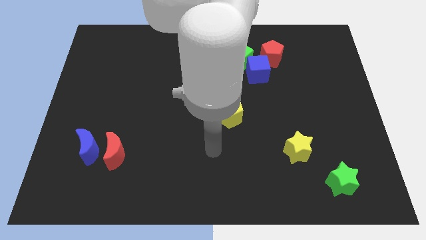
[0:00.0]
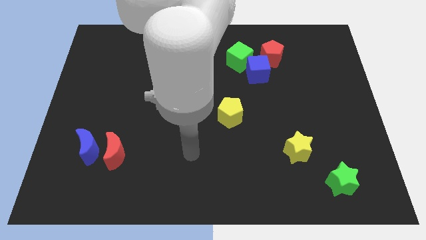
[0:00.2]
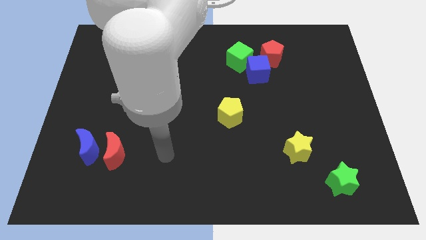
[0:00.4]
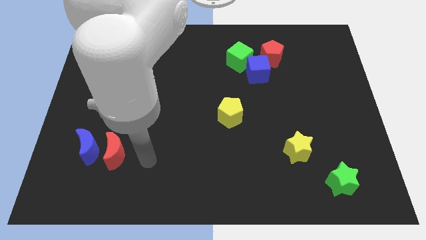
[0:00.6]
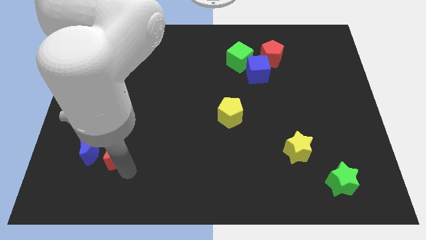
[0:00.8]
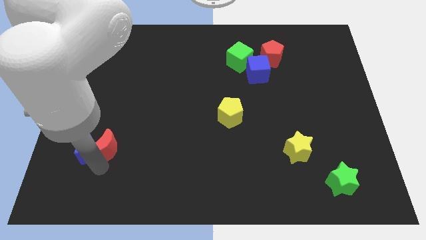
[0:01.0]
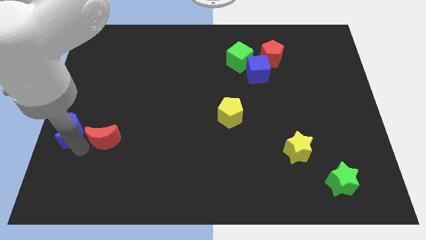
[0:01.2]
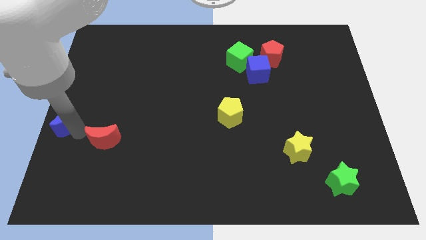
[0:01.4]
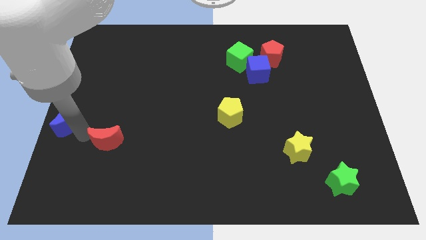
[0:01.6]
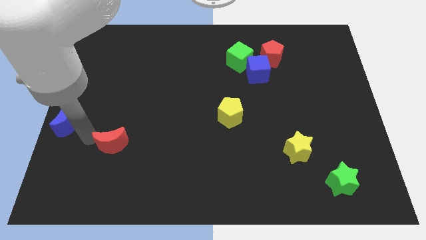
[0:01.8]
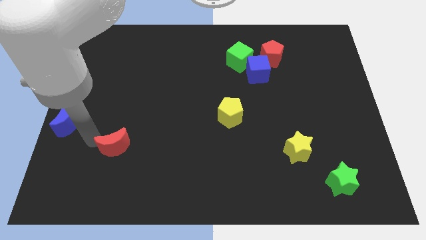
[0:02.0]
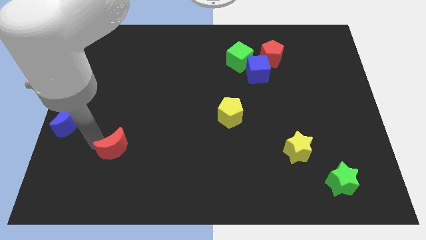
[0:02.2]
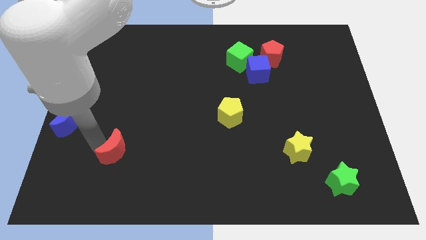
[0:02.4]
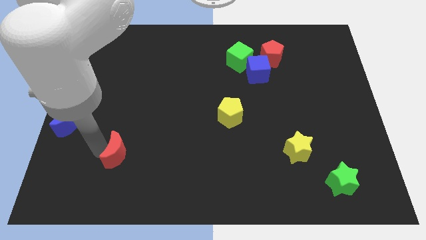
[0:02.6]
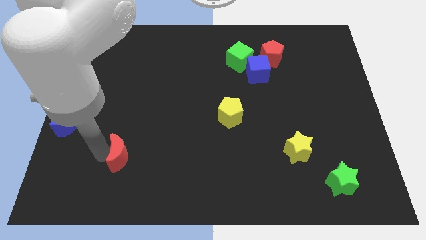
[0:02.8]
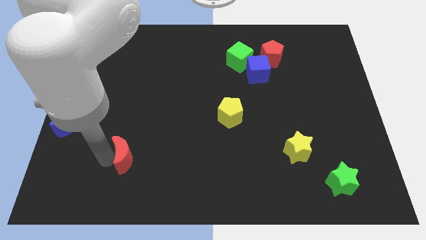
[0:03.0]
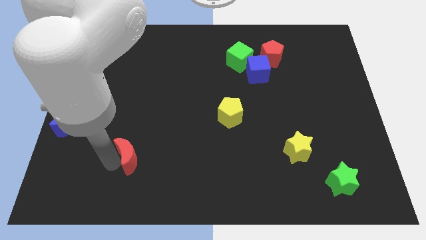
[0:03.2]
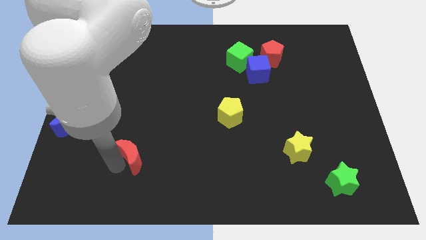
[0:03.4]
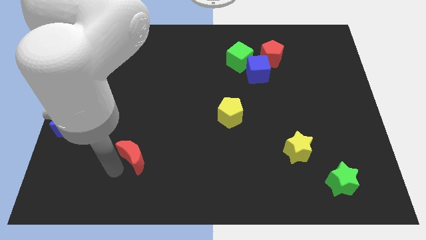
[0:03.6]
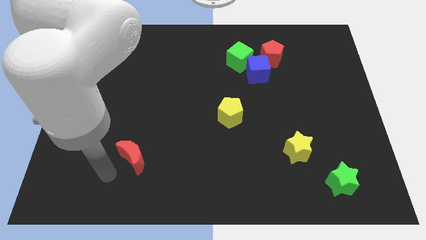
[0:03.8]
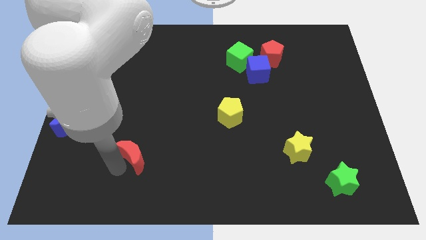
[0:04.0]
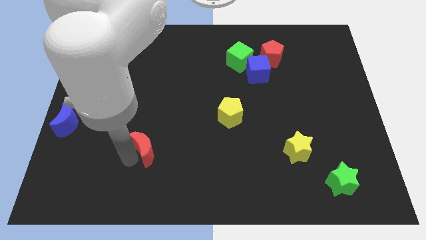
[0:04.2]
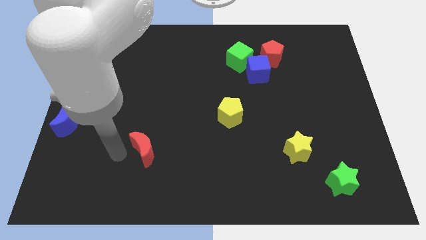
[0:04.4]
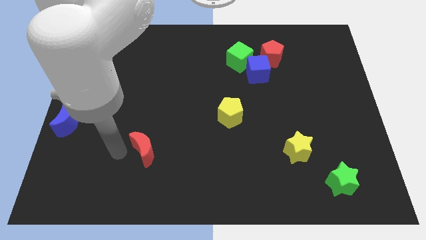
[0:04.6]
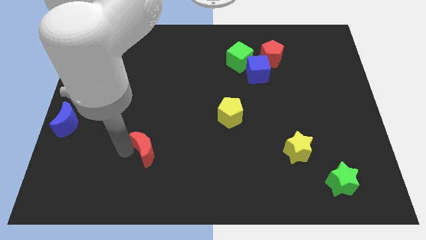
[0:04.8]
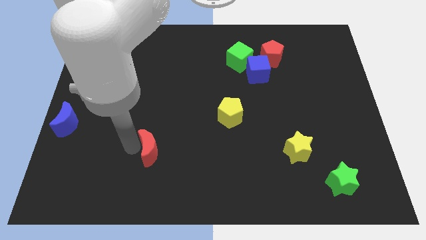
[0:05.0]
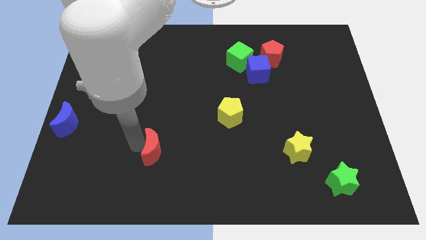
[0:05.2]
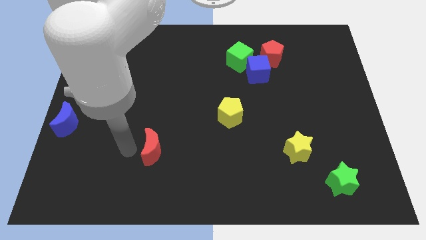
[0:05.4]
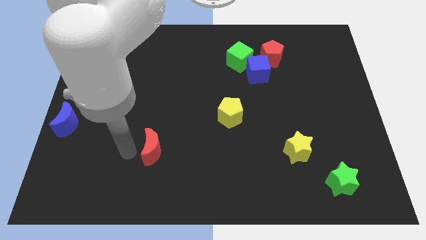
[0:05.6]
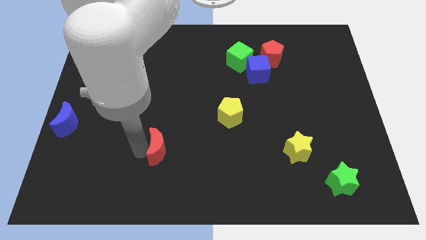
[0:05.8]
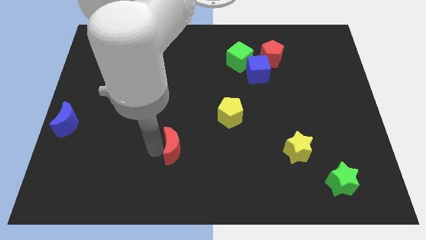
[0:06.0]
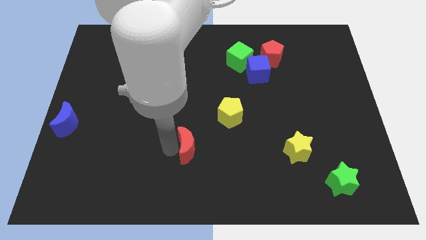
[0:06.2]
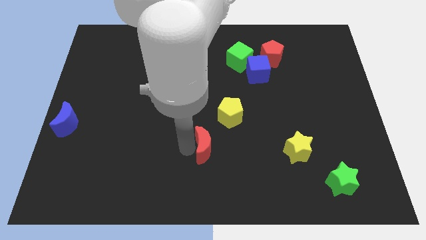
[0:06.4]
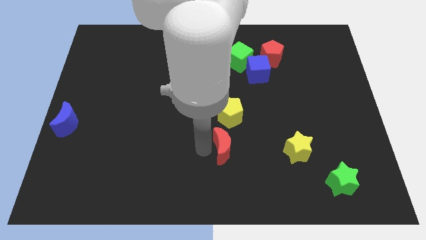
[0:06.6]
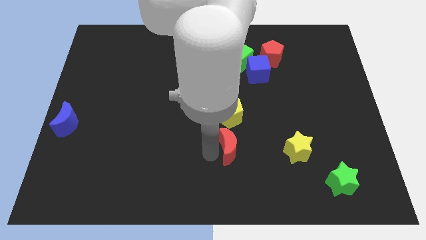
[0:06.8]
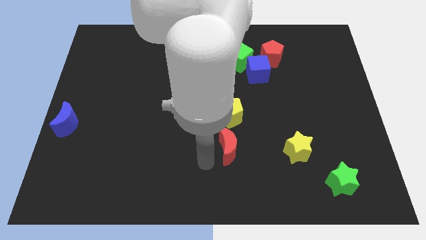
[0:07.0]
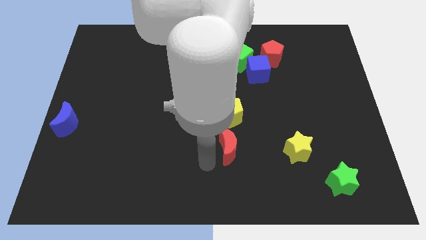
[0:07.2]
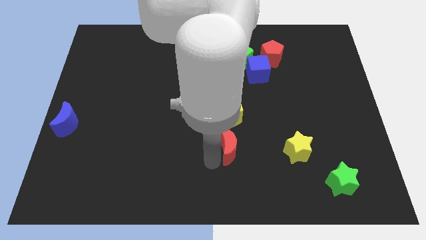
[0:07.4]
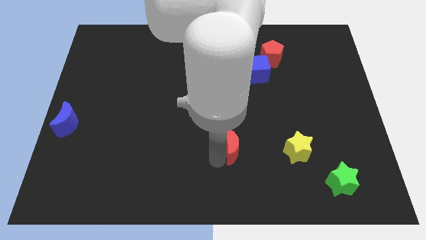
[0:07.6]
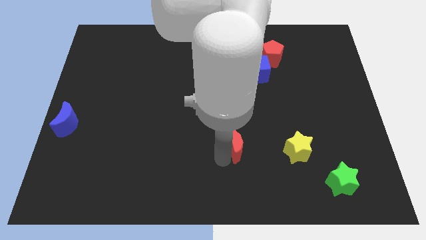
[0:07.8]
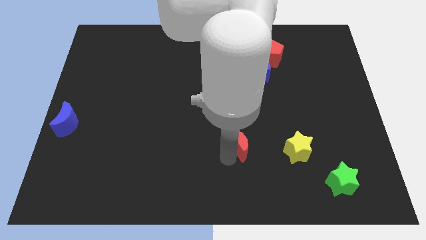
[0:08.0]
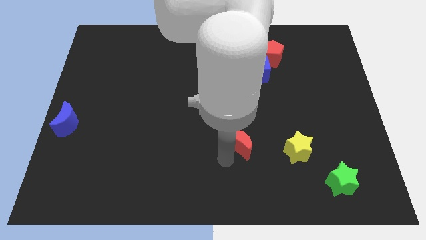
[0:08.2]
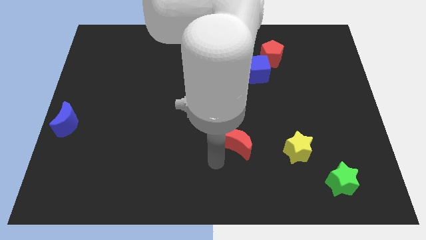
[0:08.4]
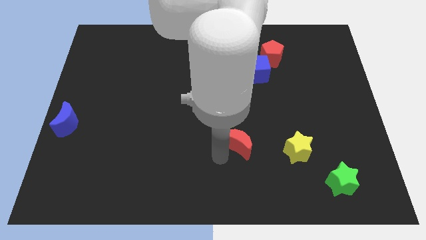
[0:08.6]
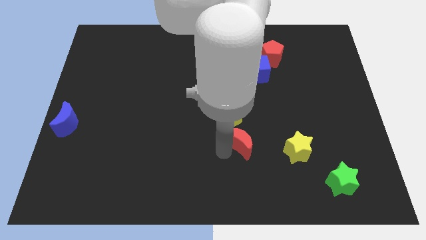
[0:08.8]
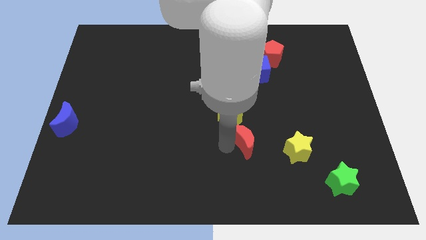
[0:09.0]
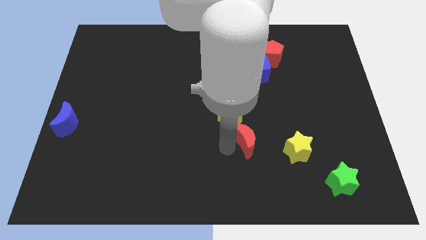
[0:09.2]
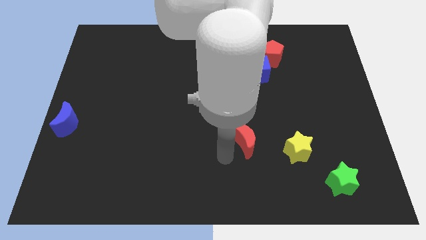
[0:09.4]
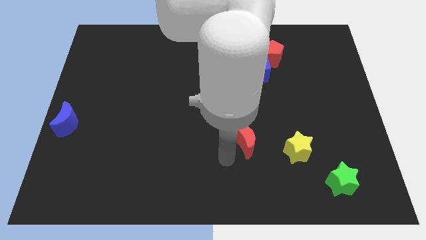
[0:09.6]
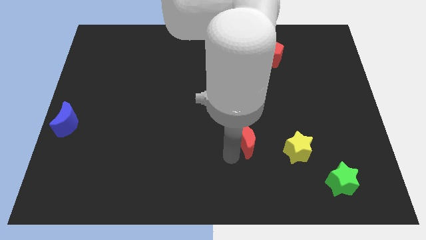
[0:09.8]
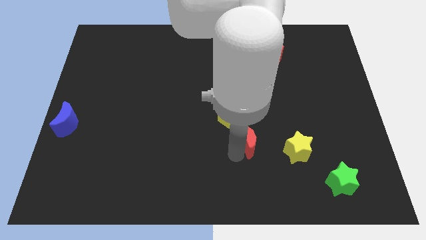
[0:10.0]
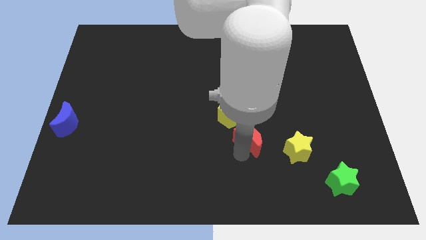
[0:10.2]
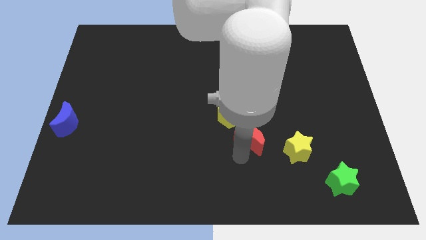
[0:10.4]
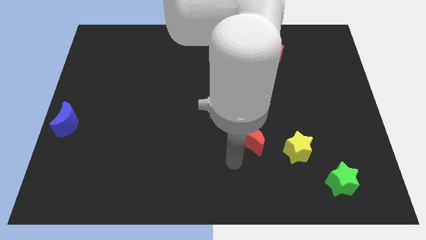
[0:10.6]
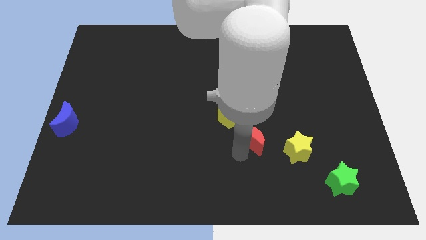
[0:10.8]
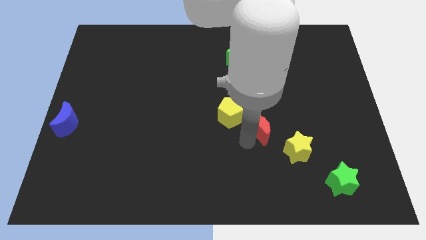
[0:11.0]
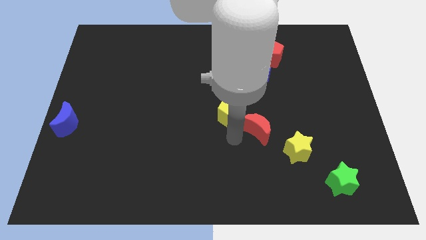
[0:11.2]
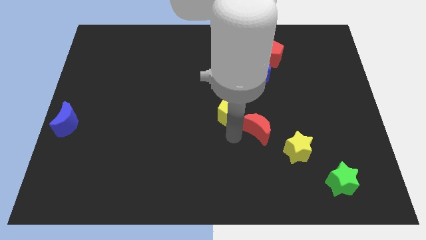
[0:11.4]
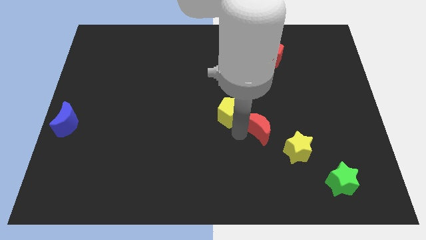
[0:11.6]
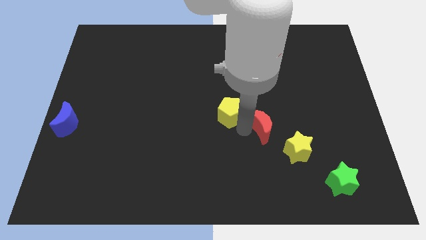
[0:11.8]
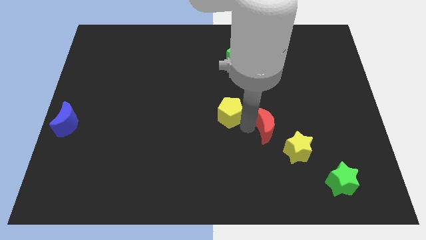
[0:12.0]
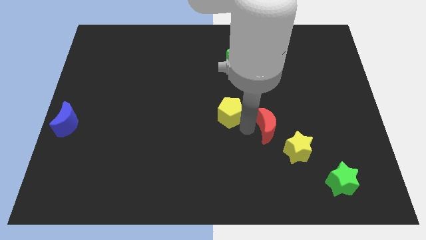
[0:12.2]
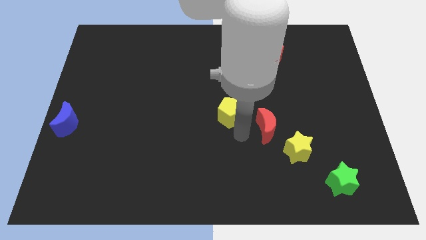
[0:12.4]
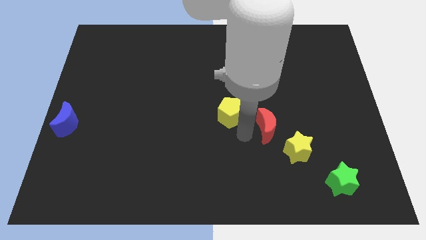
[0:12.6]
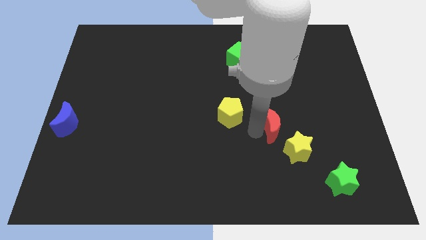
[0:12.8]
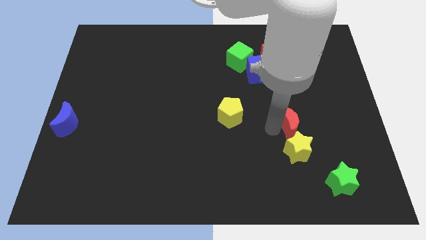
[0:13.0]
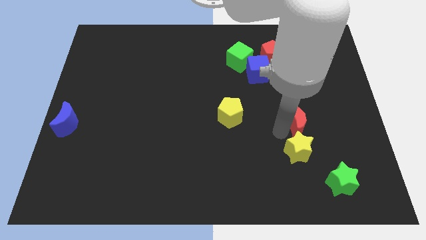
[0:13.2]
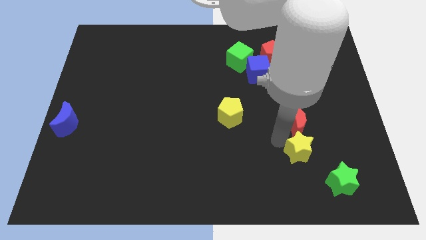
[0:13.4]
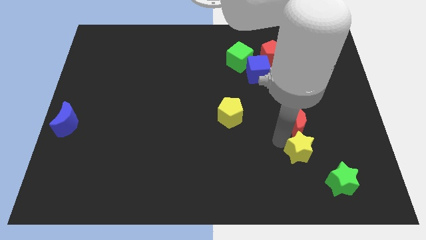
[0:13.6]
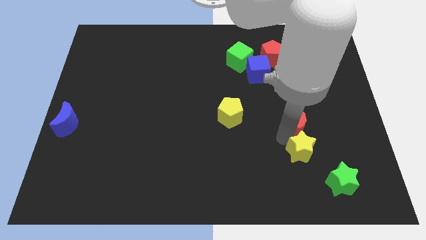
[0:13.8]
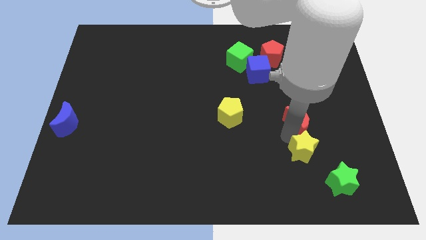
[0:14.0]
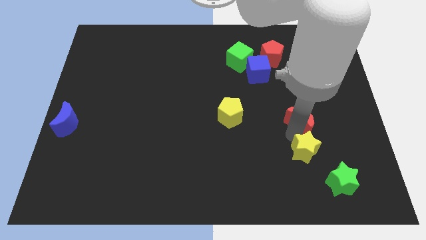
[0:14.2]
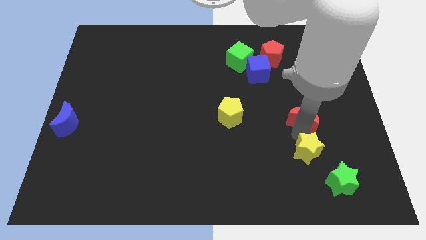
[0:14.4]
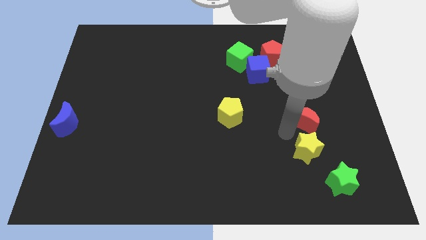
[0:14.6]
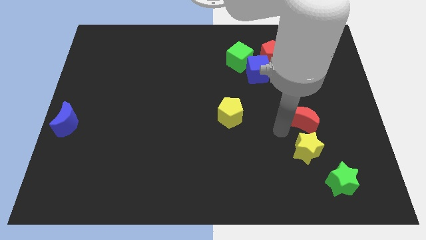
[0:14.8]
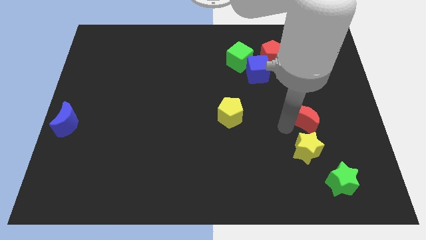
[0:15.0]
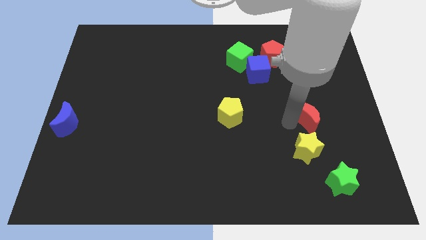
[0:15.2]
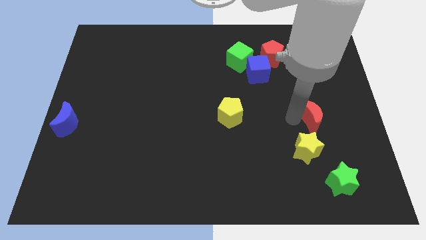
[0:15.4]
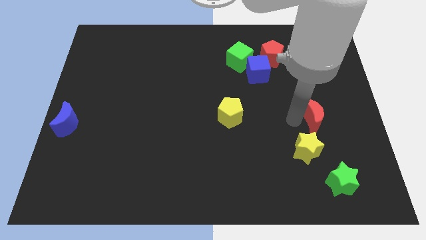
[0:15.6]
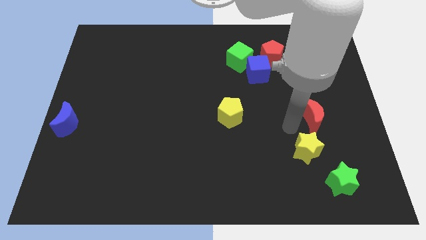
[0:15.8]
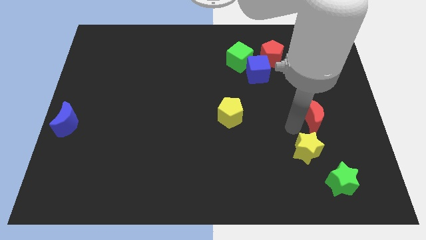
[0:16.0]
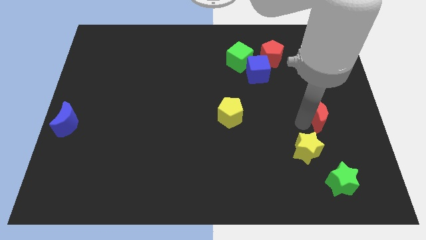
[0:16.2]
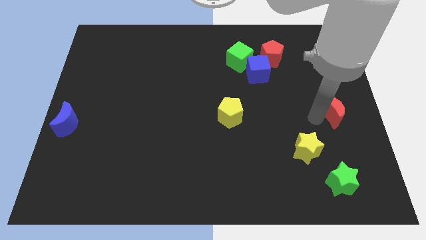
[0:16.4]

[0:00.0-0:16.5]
move the red moon to the right side of the board
